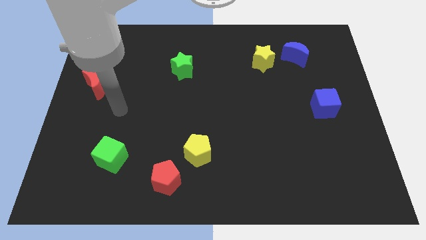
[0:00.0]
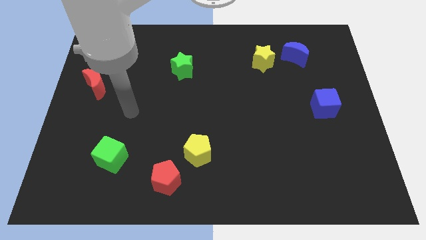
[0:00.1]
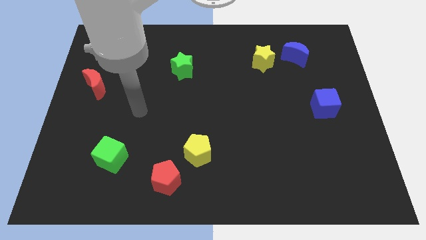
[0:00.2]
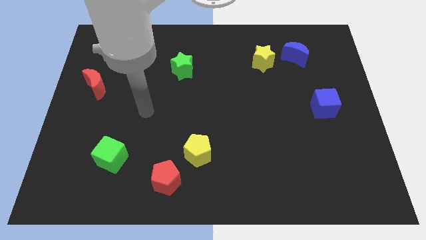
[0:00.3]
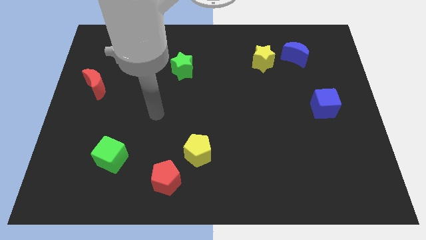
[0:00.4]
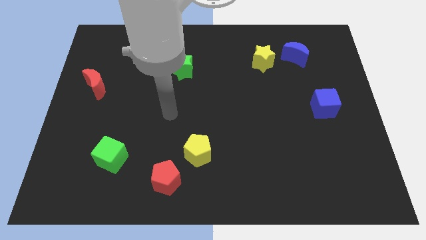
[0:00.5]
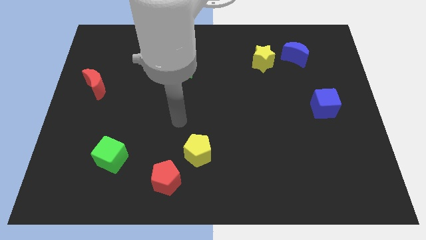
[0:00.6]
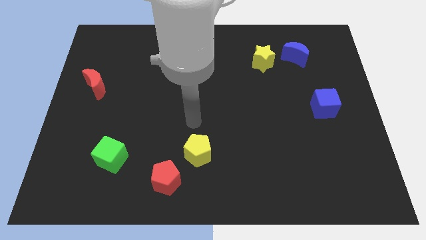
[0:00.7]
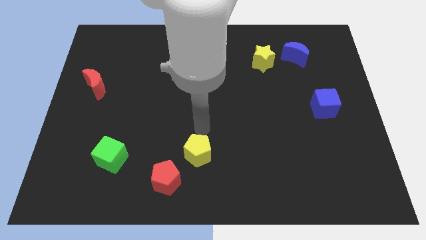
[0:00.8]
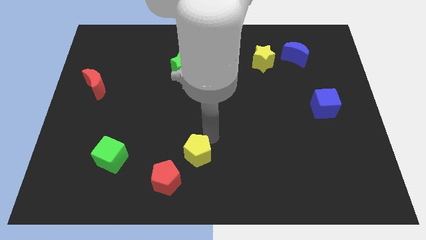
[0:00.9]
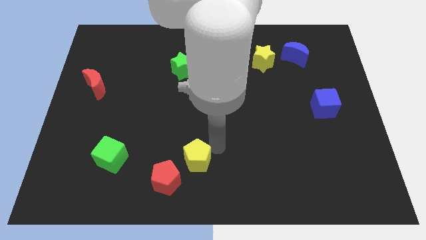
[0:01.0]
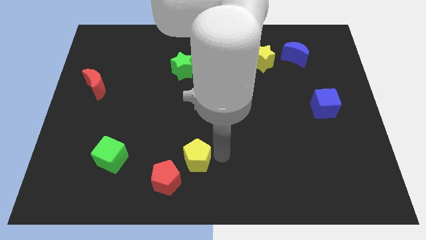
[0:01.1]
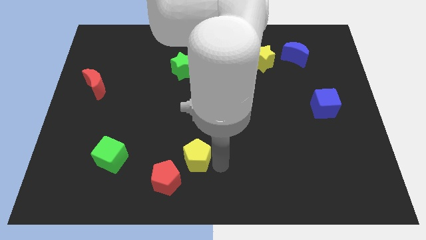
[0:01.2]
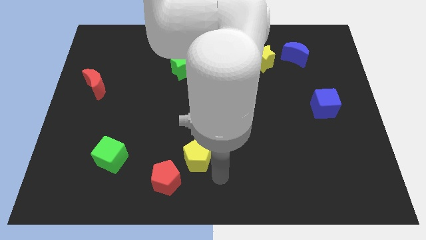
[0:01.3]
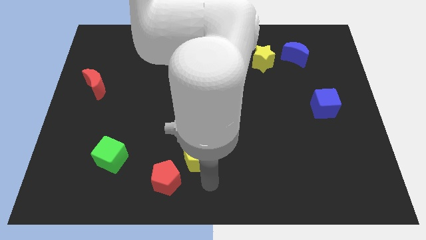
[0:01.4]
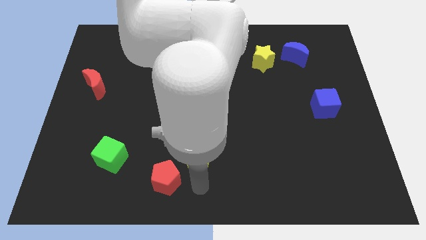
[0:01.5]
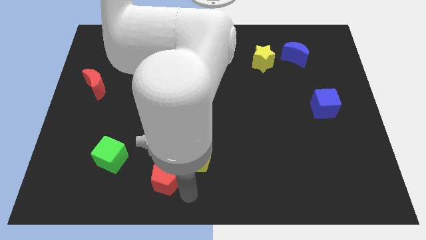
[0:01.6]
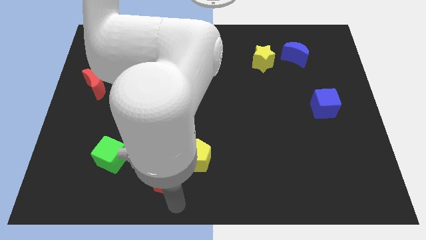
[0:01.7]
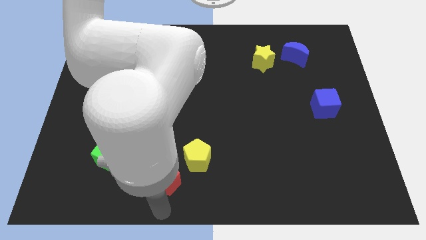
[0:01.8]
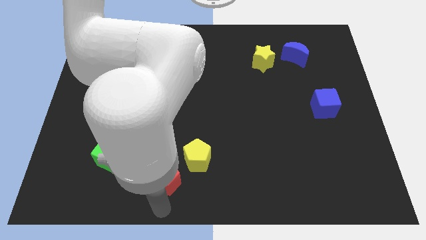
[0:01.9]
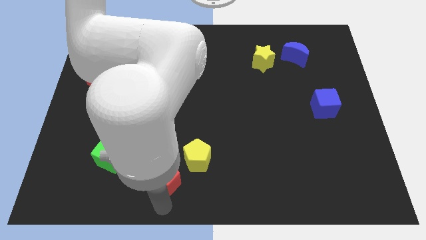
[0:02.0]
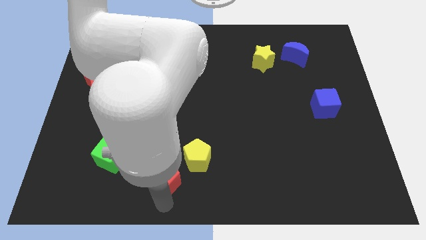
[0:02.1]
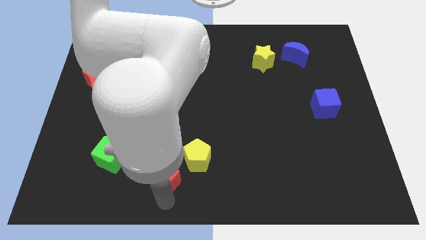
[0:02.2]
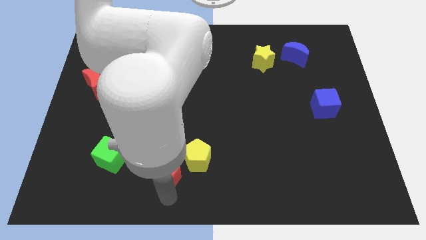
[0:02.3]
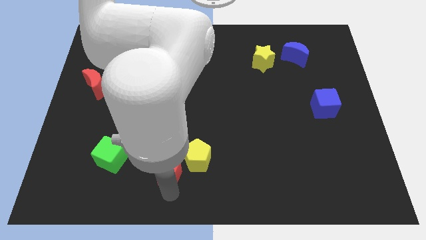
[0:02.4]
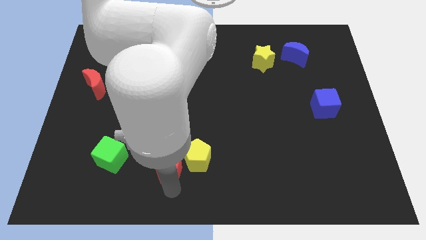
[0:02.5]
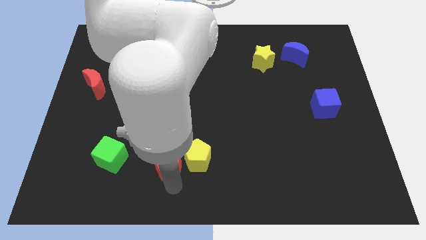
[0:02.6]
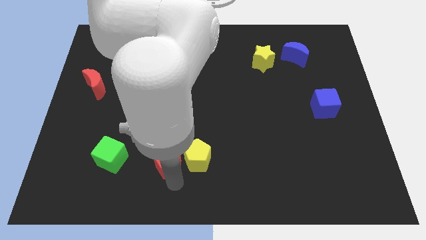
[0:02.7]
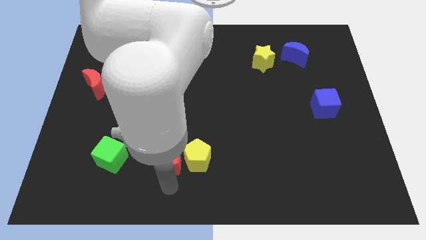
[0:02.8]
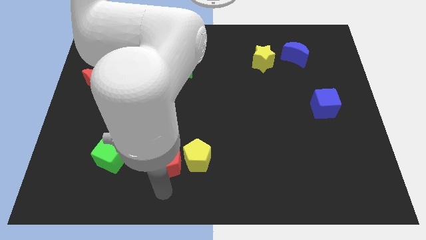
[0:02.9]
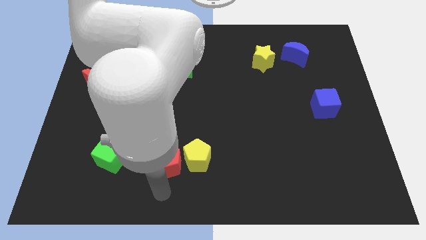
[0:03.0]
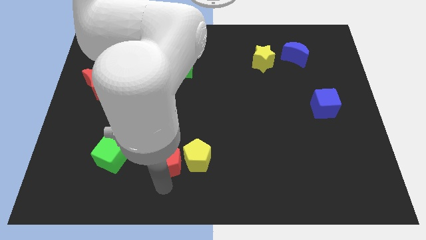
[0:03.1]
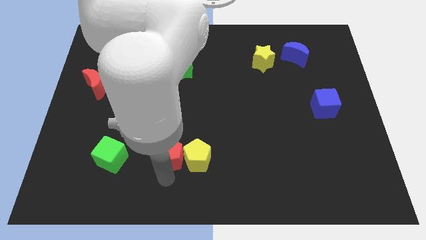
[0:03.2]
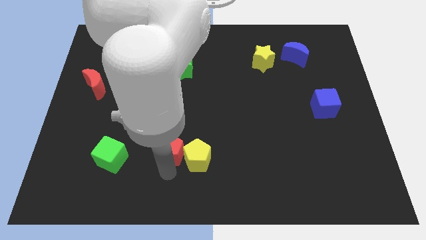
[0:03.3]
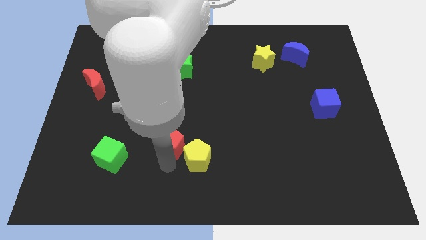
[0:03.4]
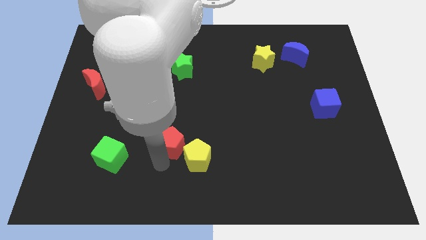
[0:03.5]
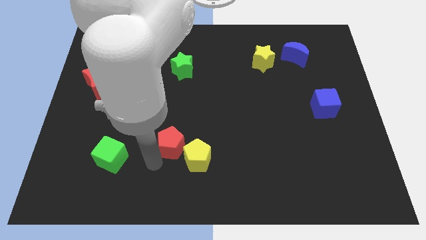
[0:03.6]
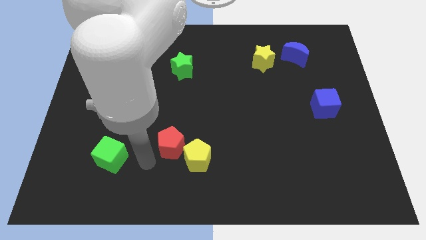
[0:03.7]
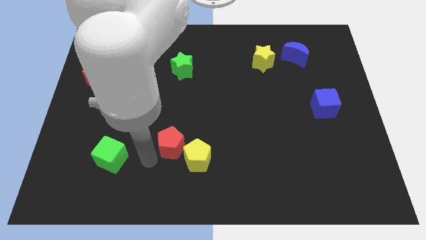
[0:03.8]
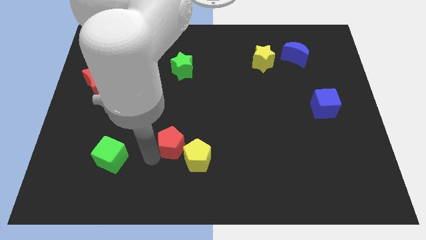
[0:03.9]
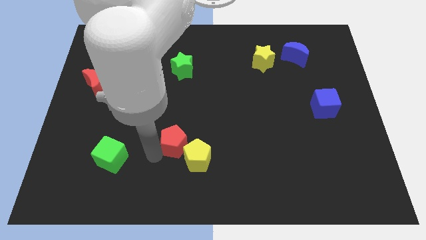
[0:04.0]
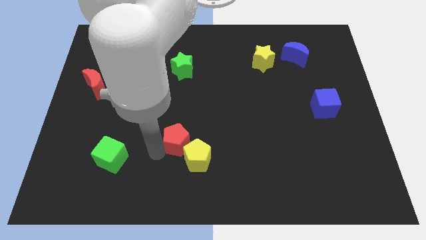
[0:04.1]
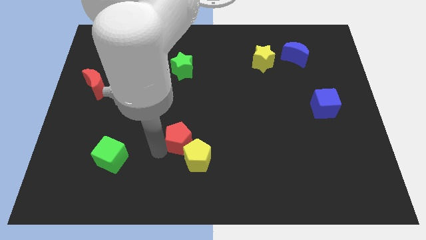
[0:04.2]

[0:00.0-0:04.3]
slide the red pentagon diagonally up and right slightly

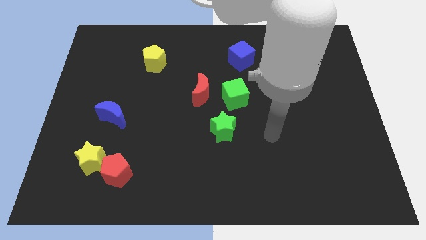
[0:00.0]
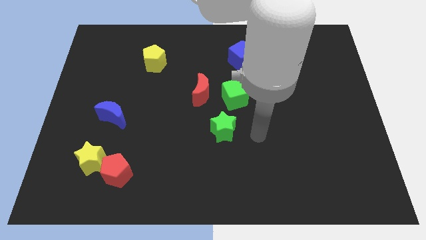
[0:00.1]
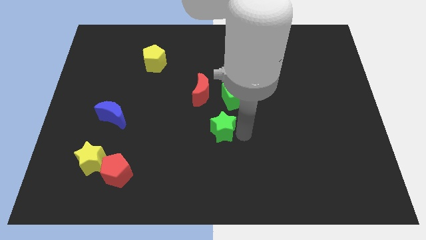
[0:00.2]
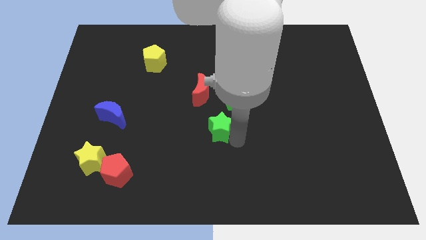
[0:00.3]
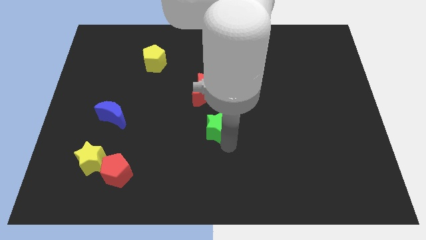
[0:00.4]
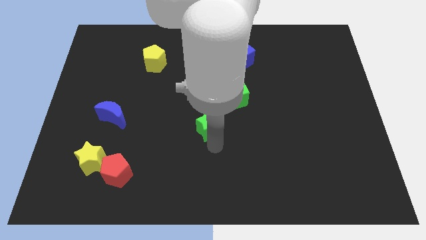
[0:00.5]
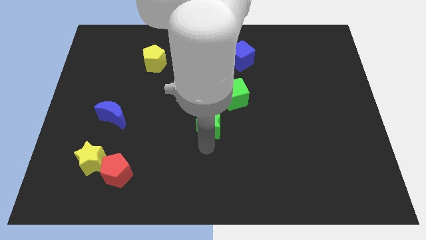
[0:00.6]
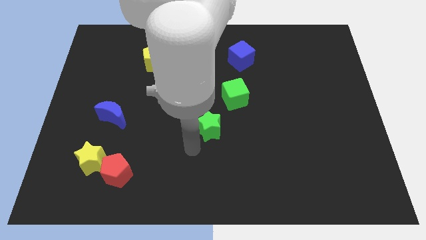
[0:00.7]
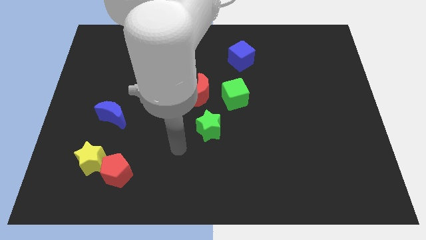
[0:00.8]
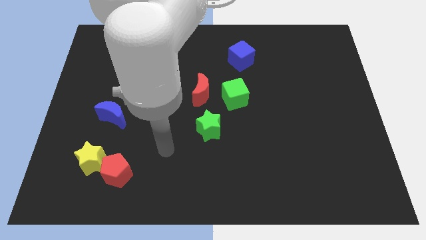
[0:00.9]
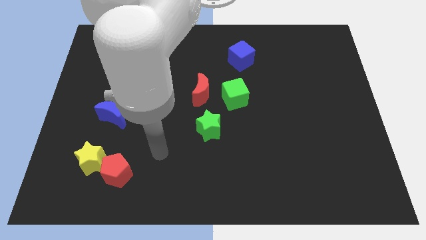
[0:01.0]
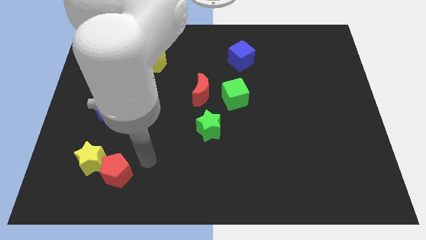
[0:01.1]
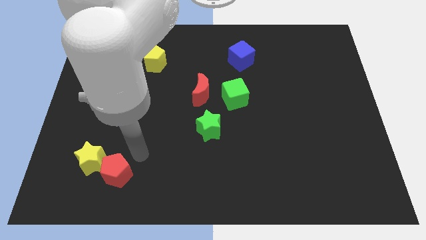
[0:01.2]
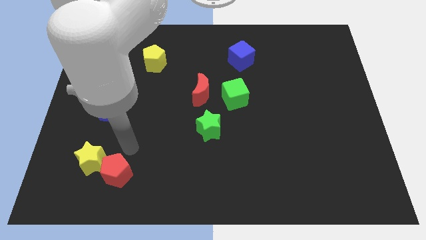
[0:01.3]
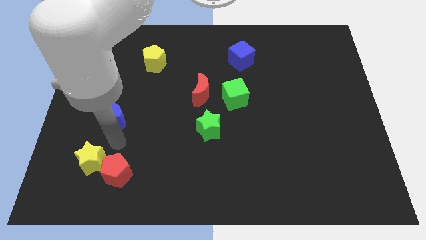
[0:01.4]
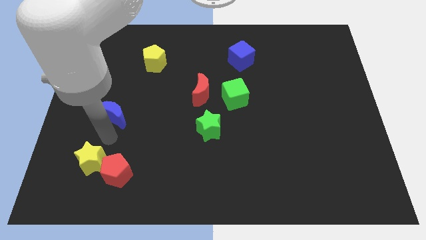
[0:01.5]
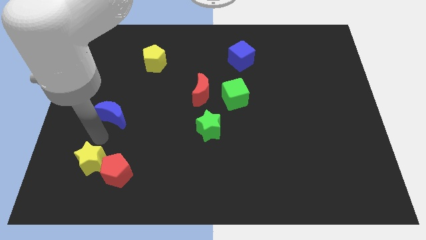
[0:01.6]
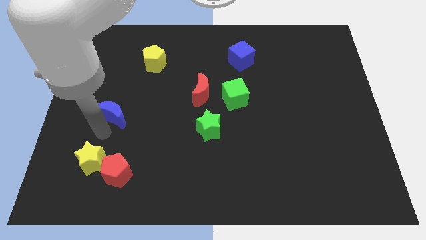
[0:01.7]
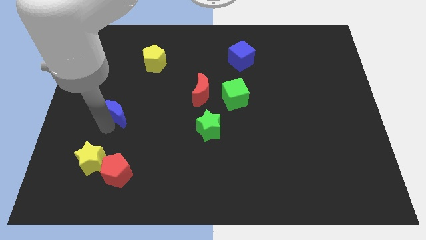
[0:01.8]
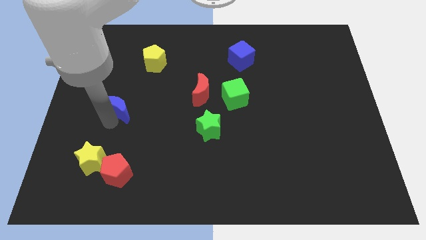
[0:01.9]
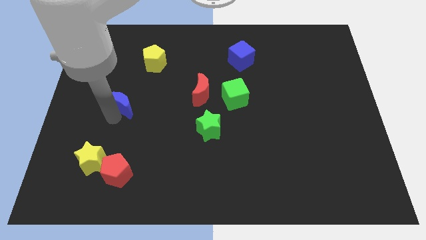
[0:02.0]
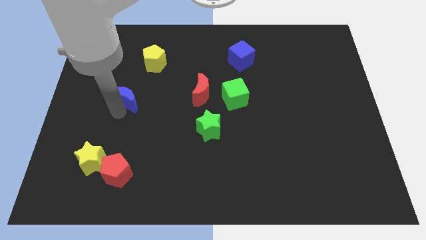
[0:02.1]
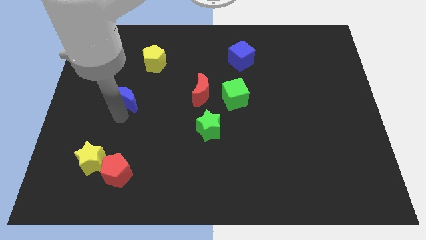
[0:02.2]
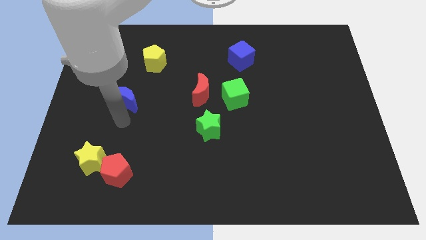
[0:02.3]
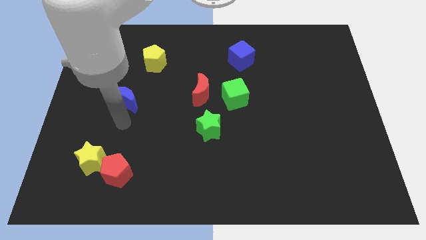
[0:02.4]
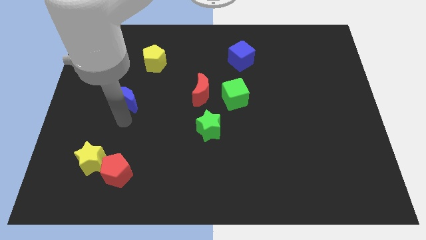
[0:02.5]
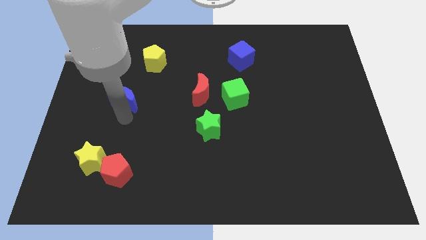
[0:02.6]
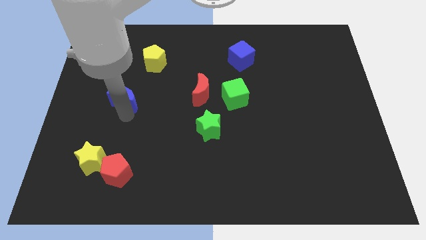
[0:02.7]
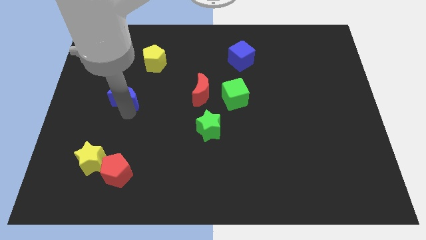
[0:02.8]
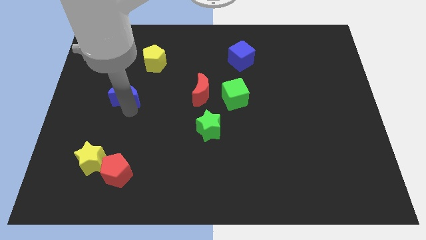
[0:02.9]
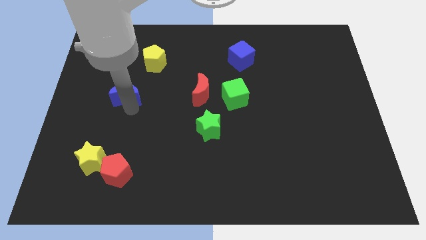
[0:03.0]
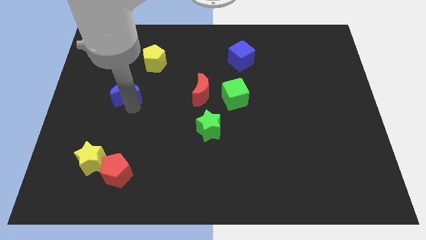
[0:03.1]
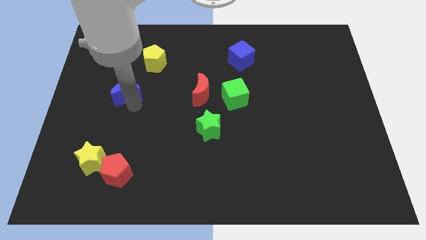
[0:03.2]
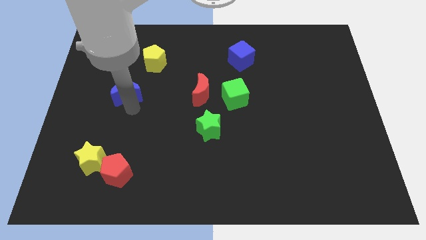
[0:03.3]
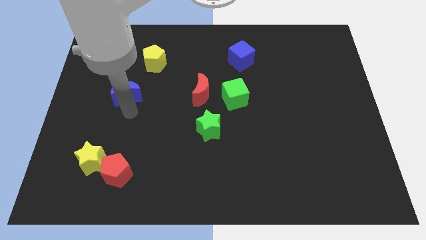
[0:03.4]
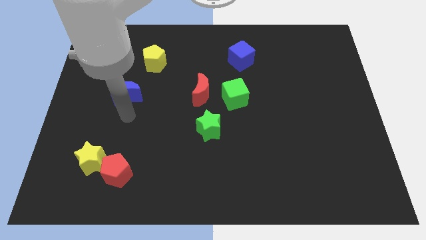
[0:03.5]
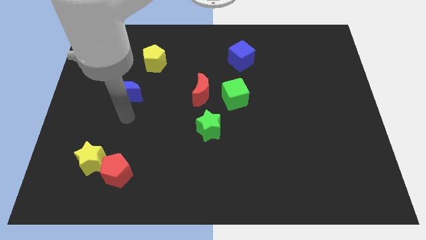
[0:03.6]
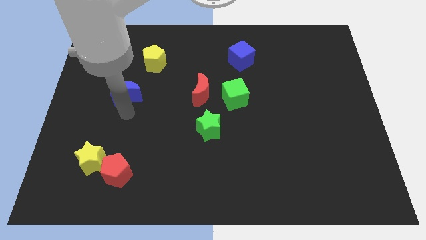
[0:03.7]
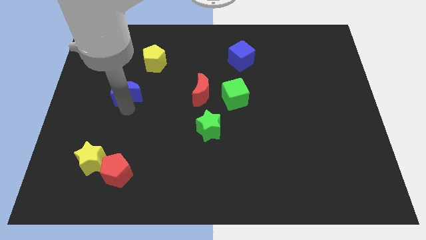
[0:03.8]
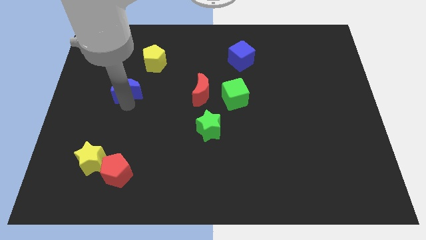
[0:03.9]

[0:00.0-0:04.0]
slightly move the blue moon up
